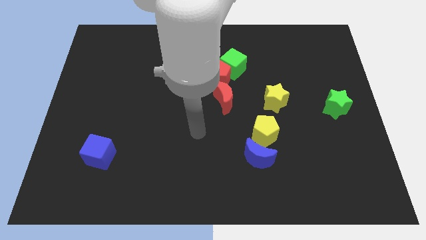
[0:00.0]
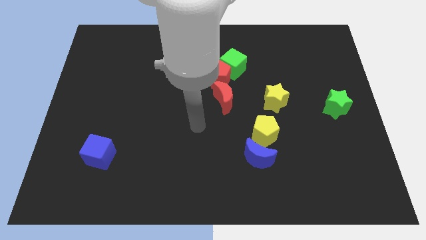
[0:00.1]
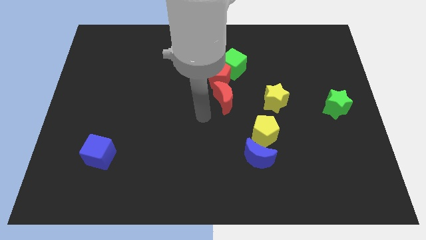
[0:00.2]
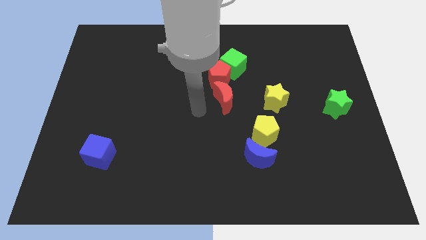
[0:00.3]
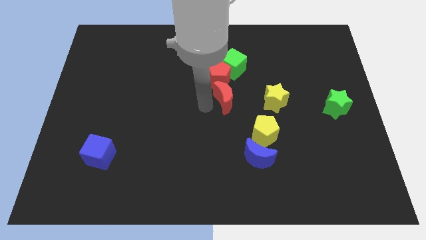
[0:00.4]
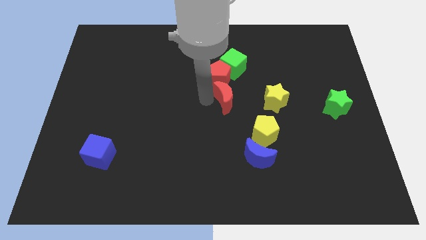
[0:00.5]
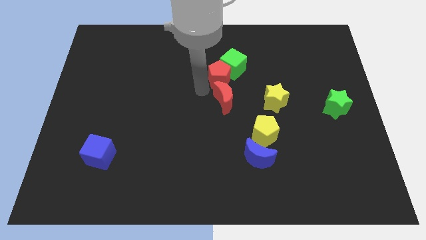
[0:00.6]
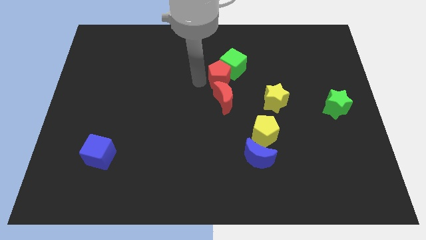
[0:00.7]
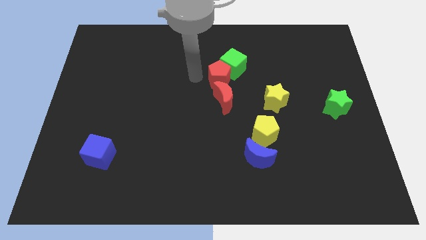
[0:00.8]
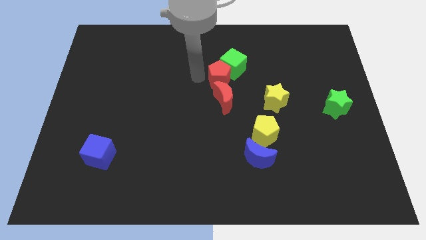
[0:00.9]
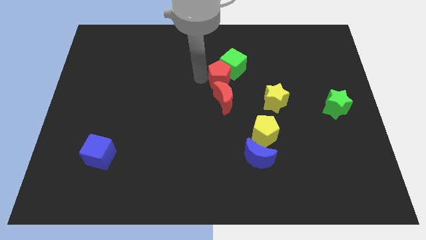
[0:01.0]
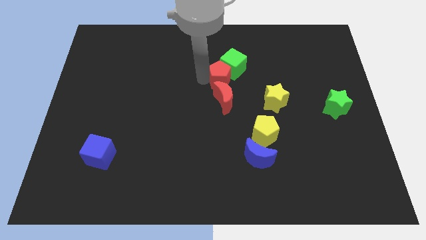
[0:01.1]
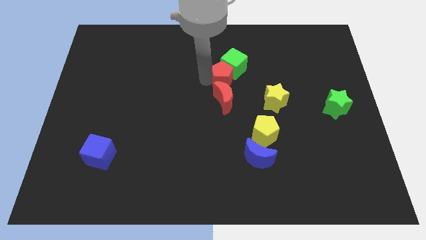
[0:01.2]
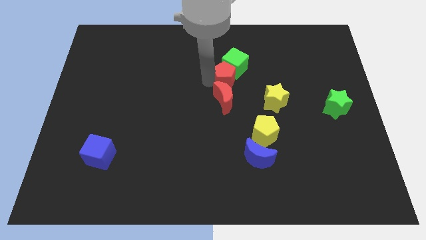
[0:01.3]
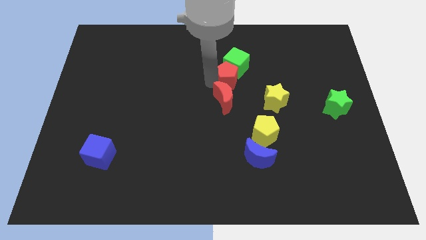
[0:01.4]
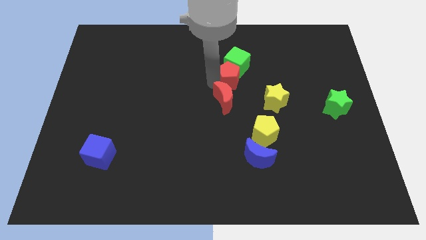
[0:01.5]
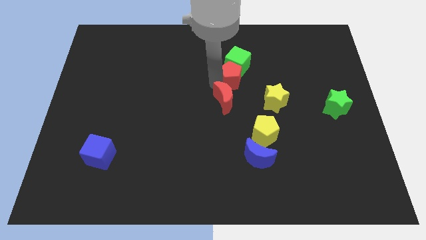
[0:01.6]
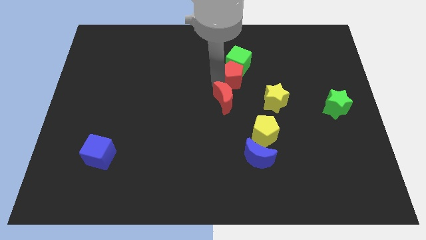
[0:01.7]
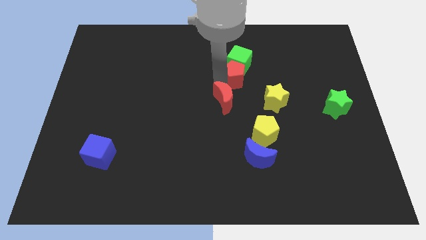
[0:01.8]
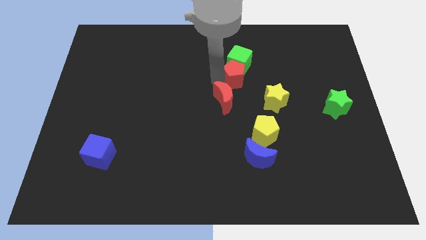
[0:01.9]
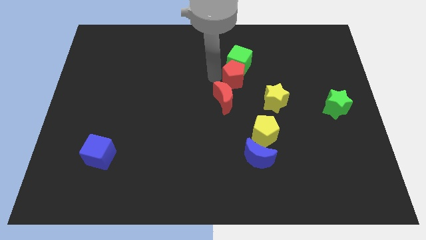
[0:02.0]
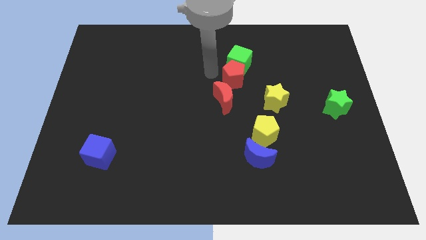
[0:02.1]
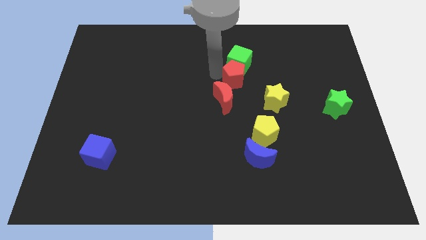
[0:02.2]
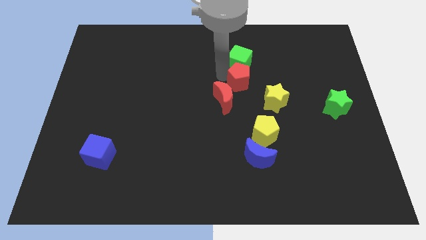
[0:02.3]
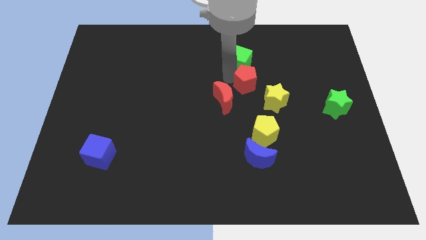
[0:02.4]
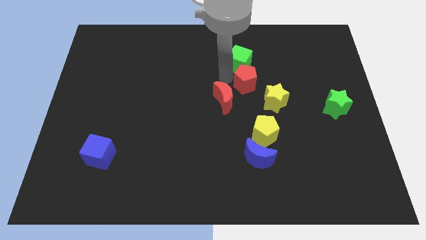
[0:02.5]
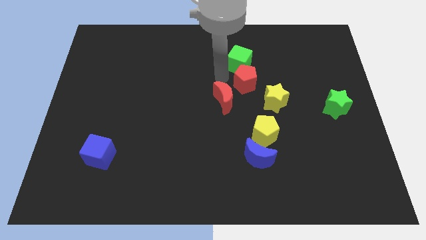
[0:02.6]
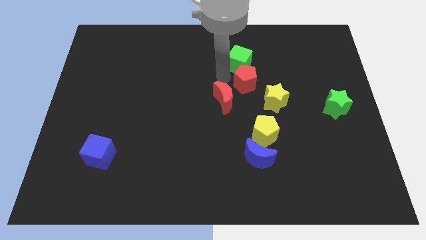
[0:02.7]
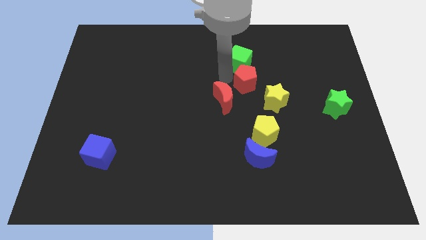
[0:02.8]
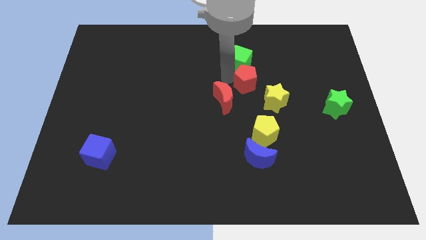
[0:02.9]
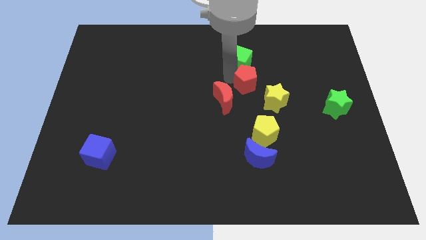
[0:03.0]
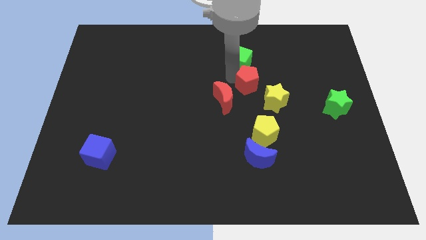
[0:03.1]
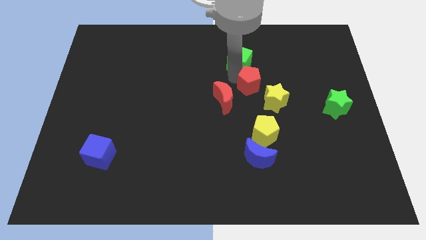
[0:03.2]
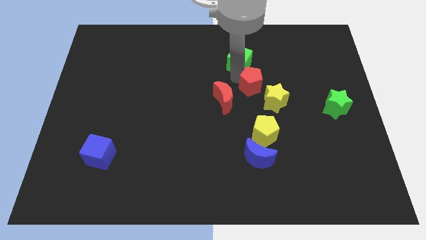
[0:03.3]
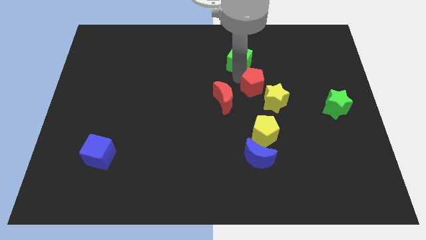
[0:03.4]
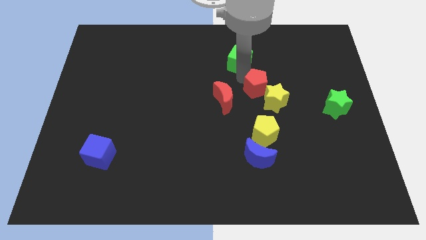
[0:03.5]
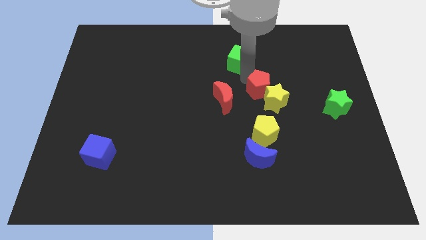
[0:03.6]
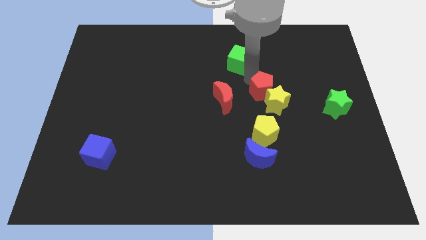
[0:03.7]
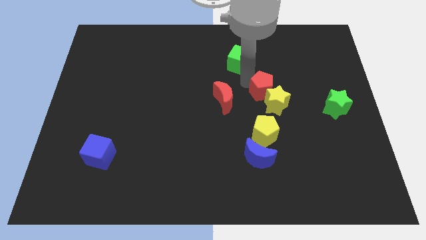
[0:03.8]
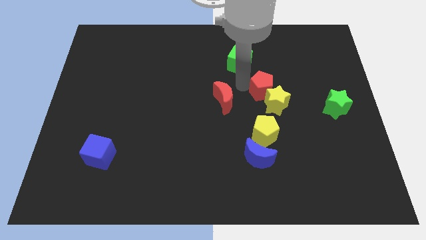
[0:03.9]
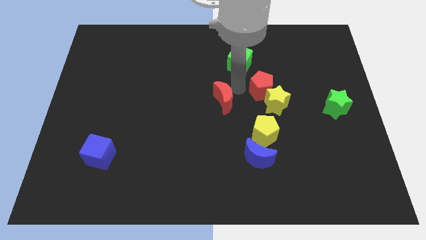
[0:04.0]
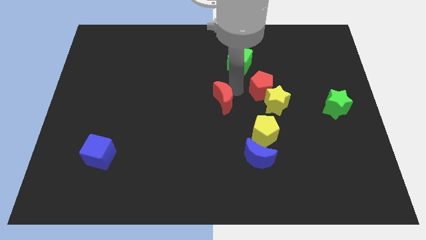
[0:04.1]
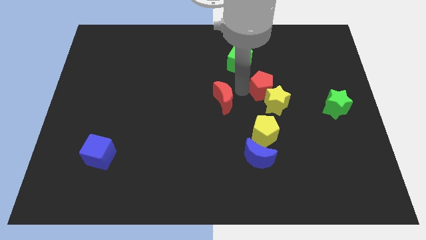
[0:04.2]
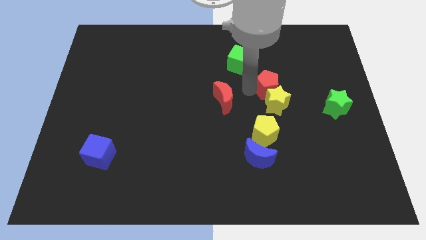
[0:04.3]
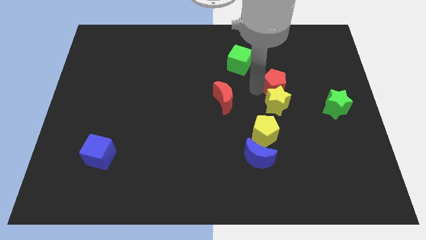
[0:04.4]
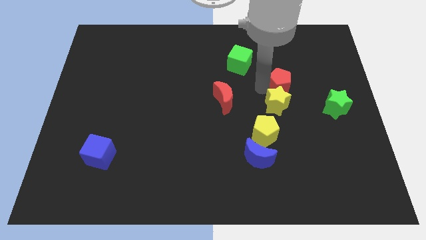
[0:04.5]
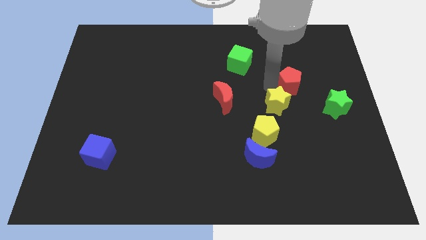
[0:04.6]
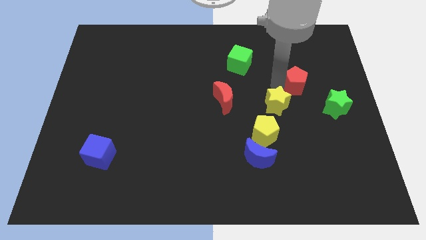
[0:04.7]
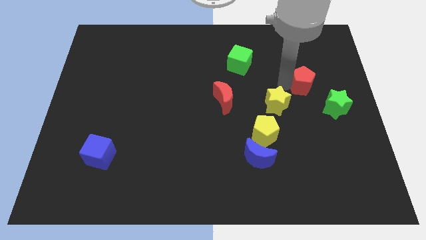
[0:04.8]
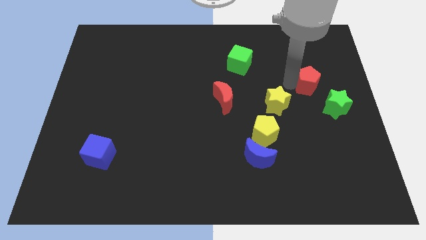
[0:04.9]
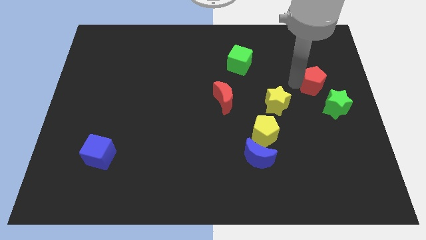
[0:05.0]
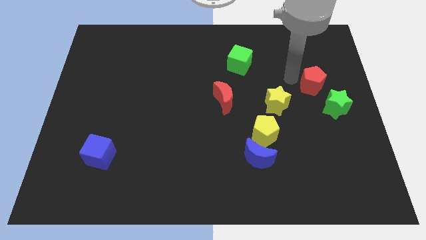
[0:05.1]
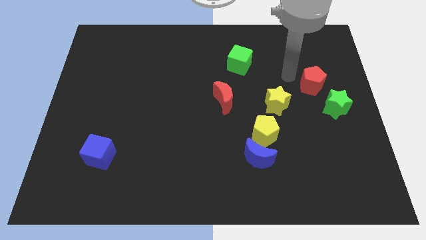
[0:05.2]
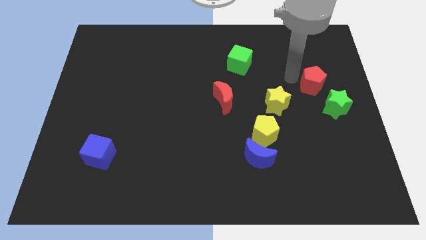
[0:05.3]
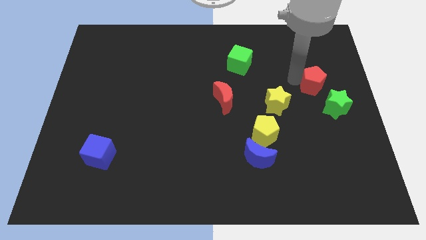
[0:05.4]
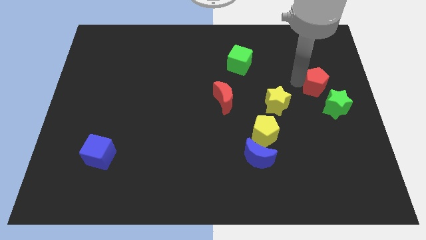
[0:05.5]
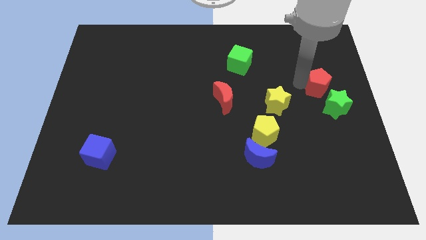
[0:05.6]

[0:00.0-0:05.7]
push the red pentagon to the center right

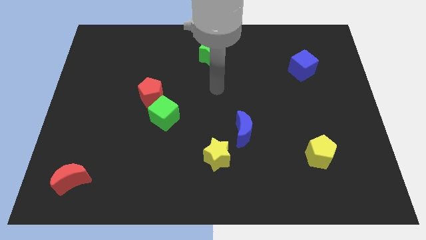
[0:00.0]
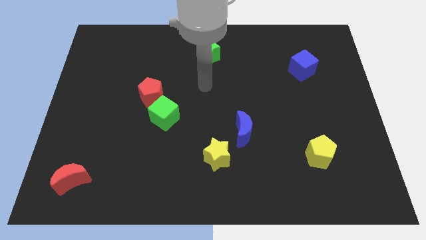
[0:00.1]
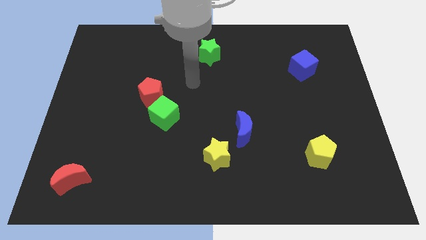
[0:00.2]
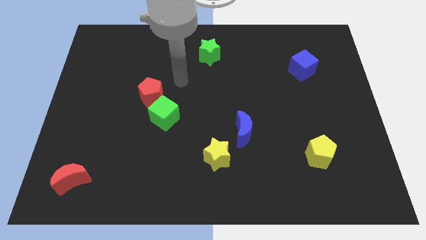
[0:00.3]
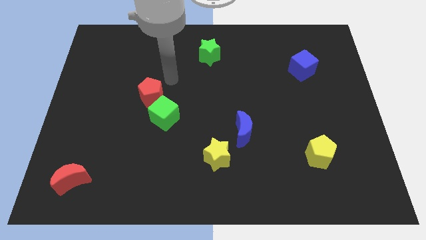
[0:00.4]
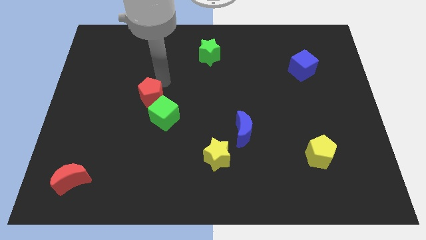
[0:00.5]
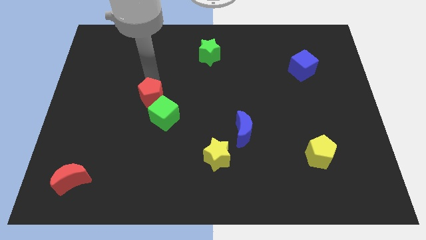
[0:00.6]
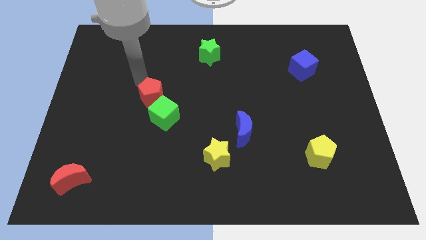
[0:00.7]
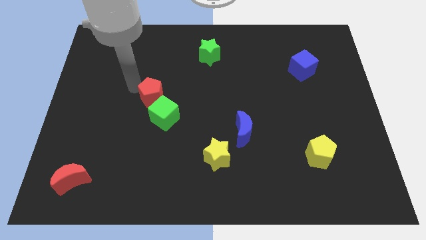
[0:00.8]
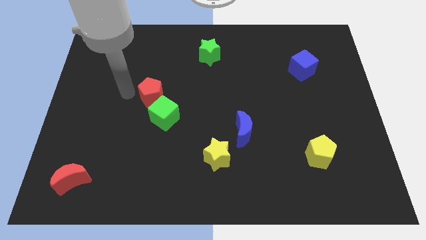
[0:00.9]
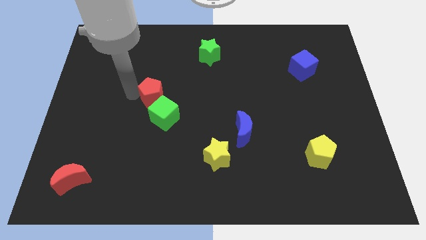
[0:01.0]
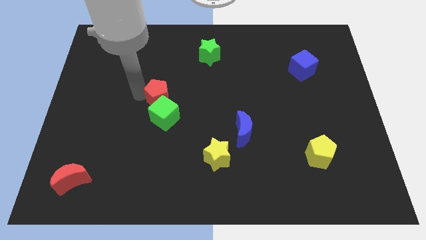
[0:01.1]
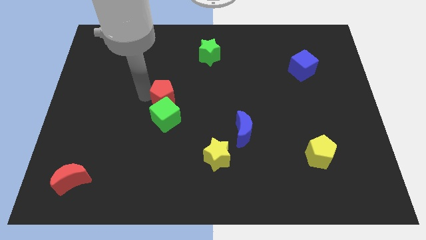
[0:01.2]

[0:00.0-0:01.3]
push the red pentagon to the center
